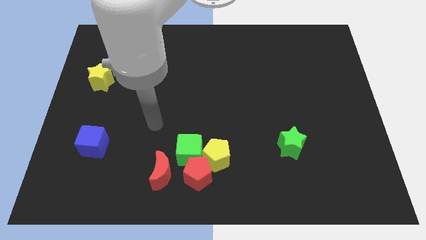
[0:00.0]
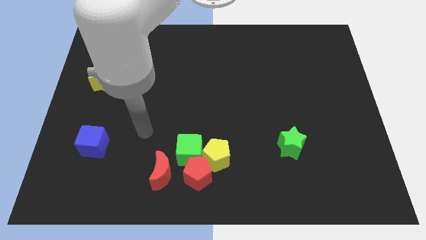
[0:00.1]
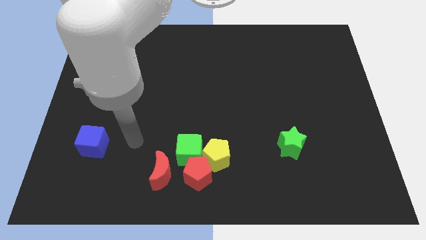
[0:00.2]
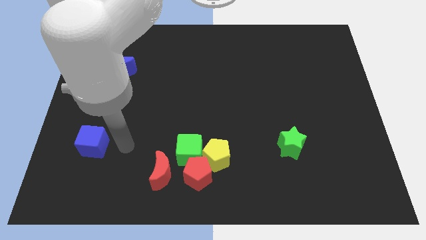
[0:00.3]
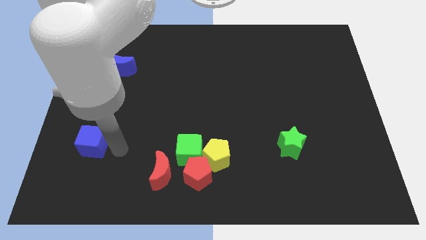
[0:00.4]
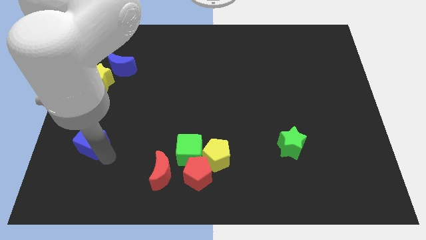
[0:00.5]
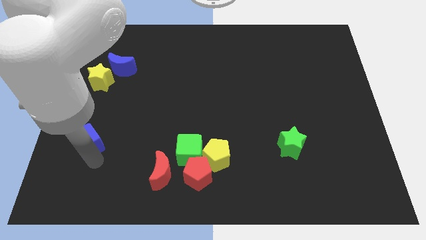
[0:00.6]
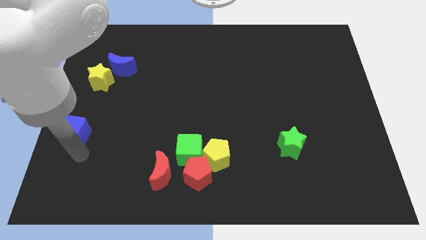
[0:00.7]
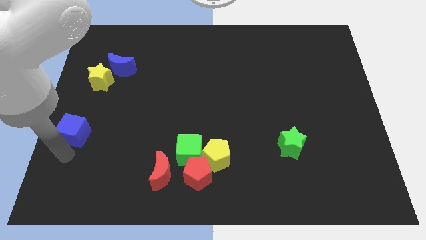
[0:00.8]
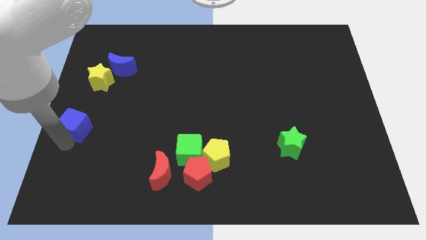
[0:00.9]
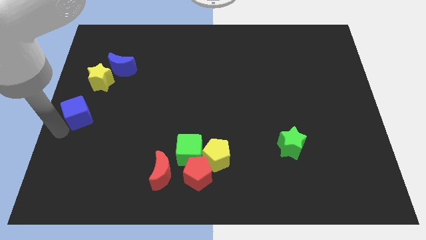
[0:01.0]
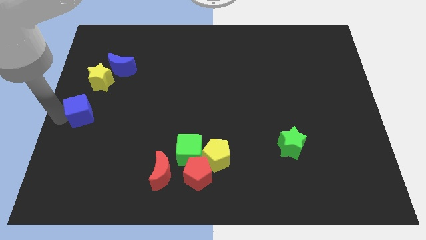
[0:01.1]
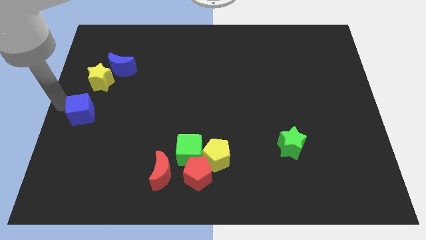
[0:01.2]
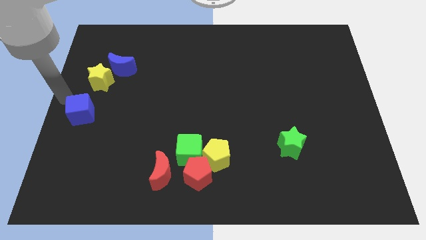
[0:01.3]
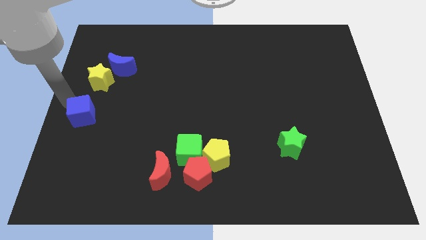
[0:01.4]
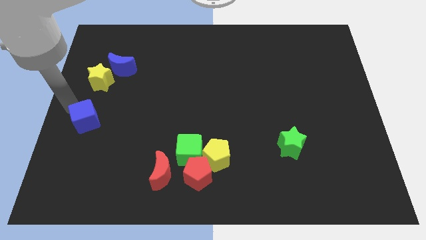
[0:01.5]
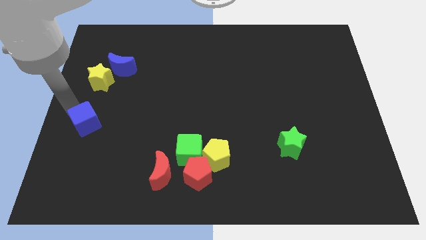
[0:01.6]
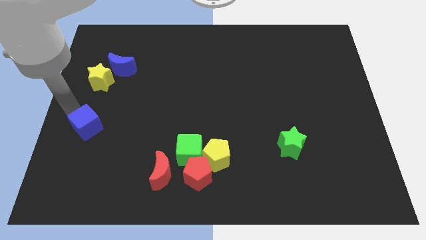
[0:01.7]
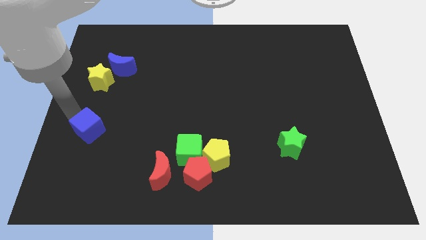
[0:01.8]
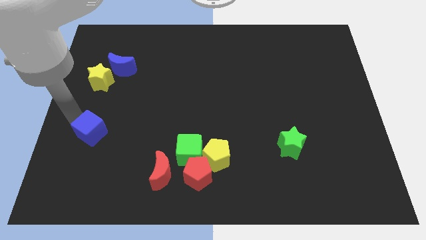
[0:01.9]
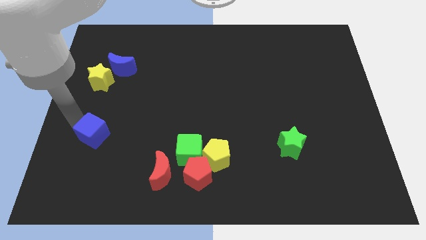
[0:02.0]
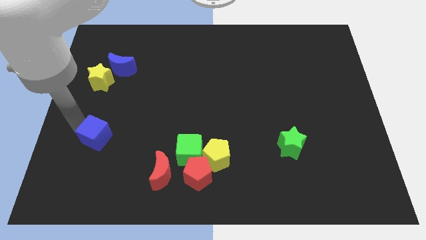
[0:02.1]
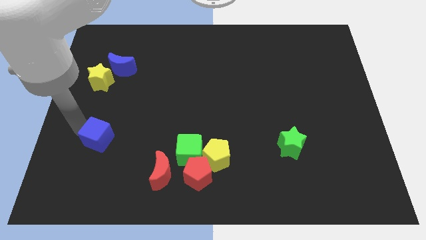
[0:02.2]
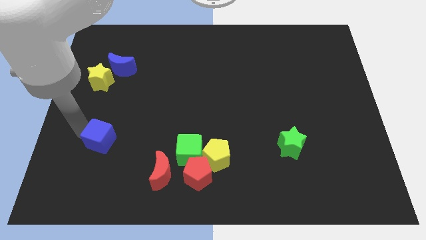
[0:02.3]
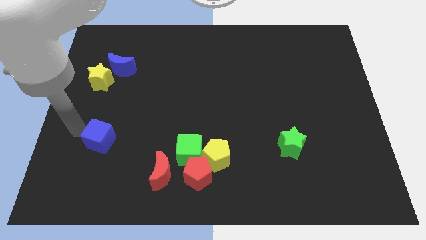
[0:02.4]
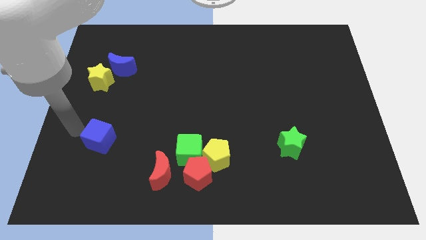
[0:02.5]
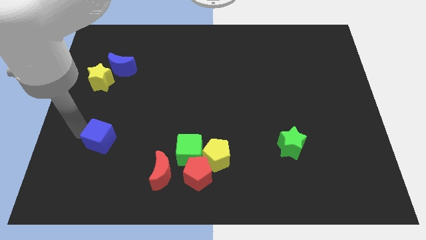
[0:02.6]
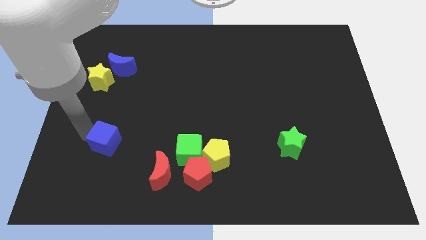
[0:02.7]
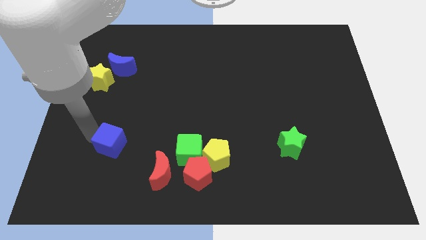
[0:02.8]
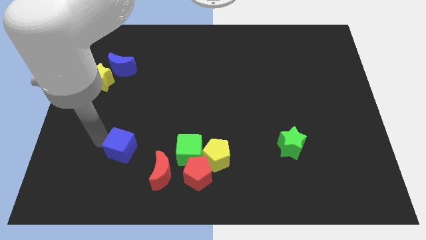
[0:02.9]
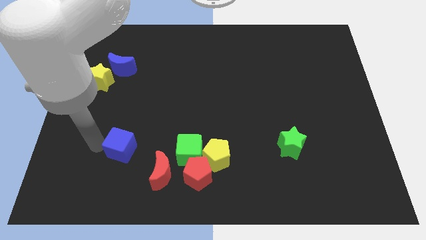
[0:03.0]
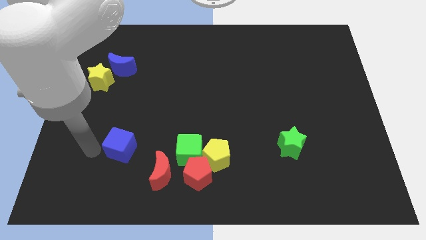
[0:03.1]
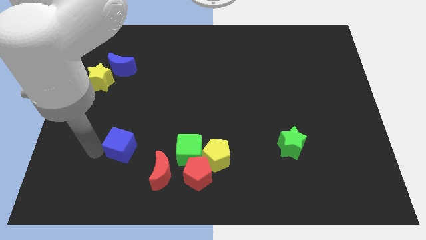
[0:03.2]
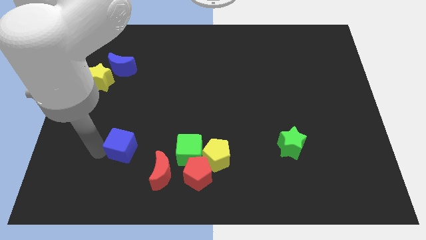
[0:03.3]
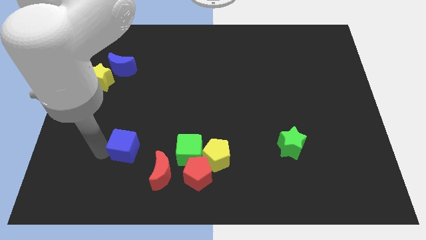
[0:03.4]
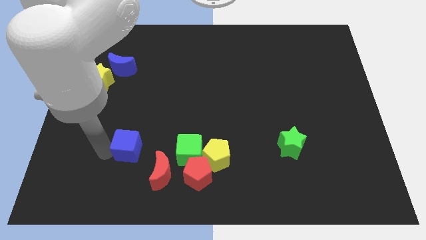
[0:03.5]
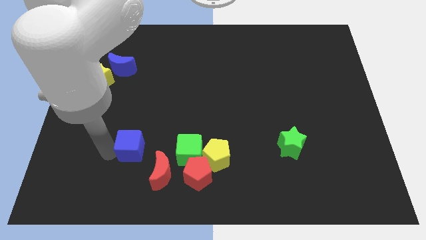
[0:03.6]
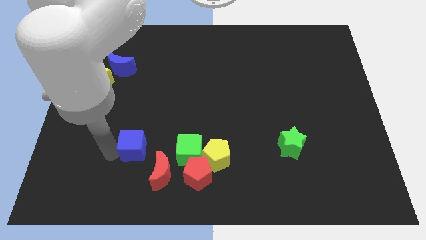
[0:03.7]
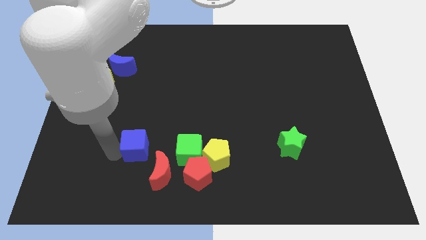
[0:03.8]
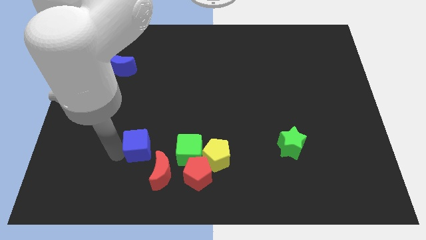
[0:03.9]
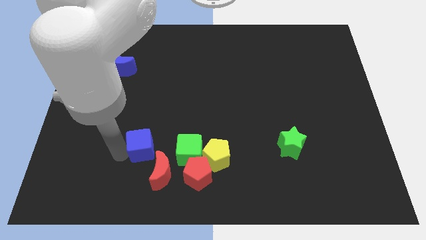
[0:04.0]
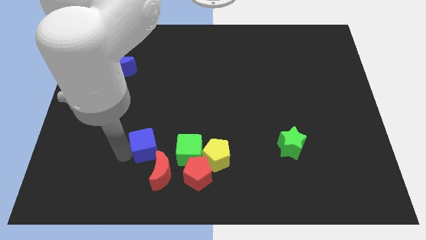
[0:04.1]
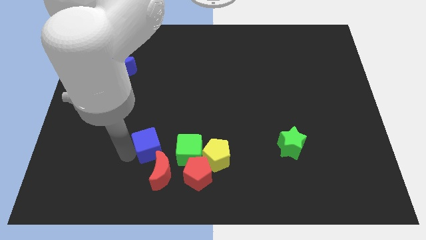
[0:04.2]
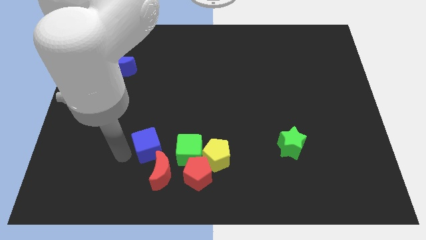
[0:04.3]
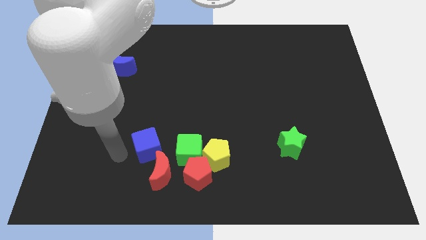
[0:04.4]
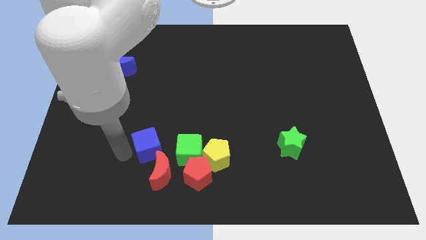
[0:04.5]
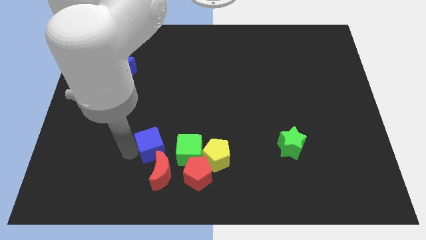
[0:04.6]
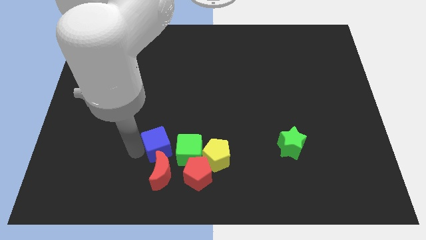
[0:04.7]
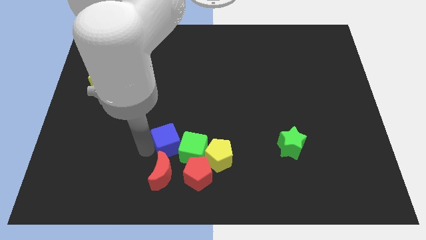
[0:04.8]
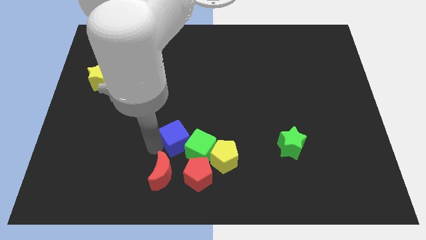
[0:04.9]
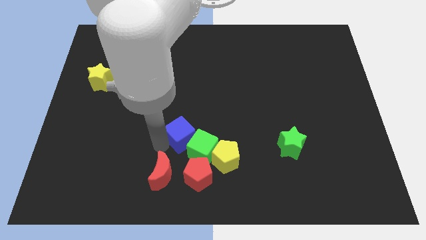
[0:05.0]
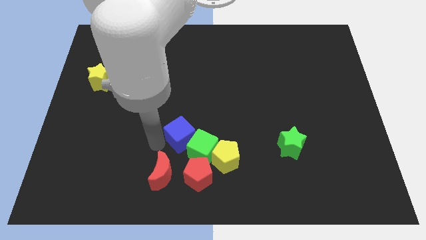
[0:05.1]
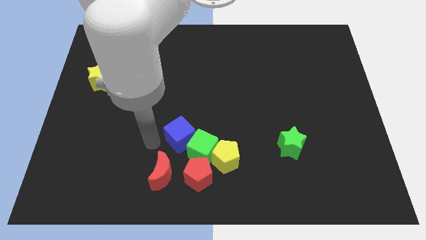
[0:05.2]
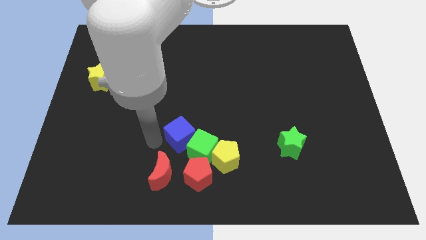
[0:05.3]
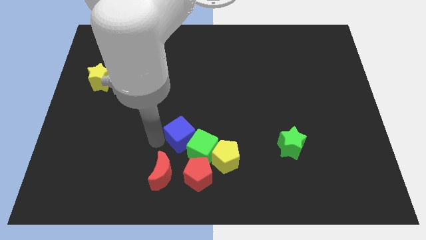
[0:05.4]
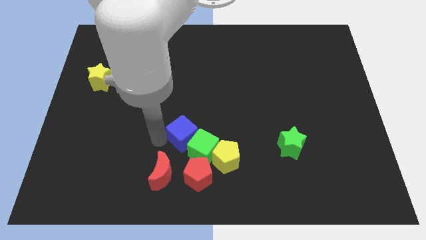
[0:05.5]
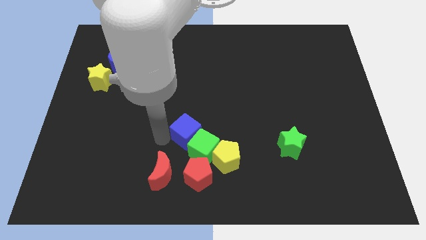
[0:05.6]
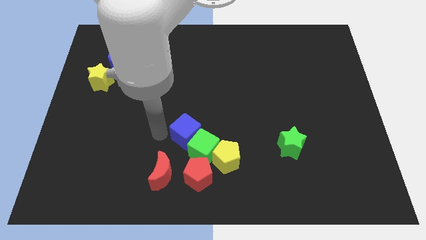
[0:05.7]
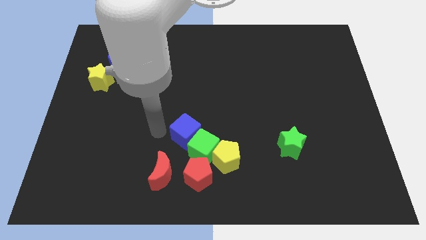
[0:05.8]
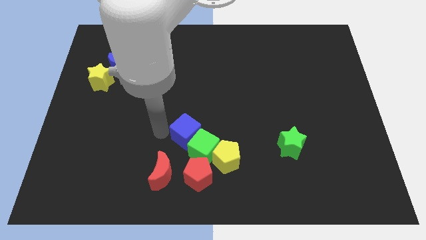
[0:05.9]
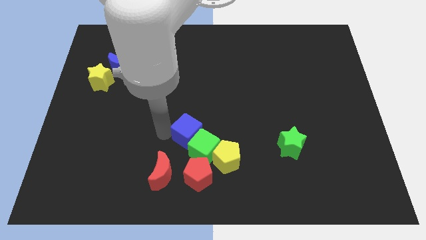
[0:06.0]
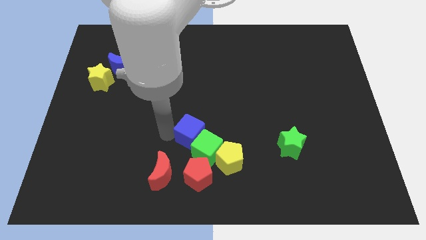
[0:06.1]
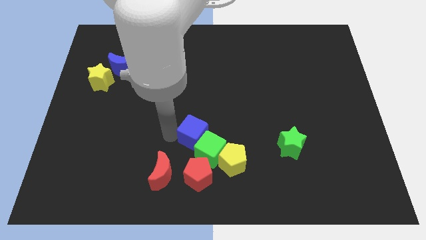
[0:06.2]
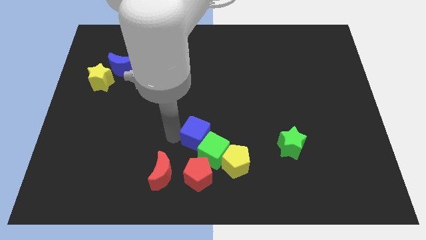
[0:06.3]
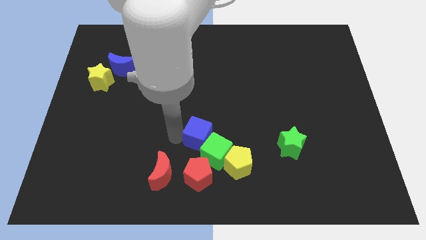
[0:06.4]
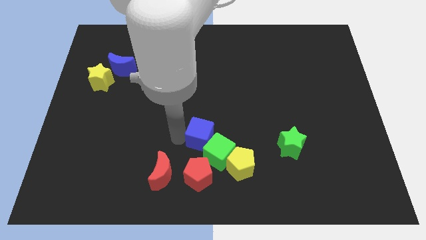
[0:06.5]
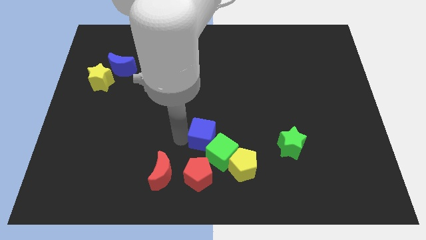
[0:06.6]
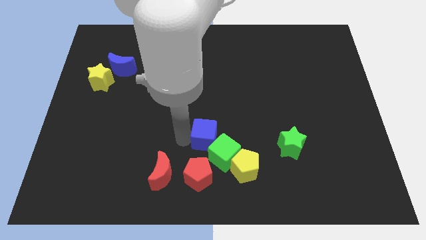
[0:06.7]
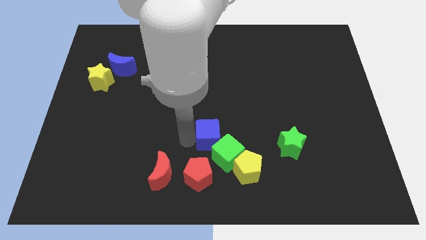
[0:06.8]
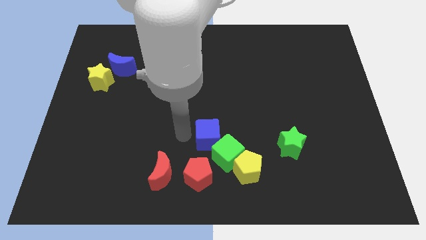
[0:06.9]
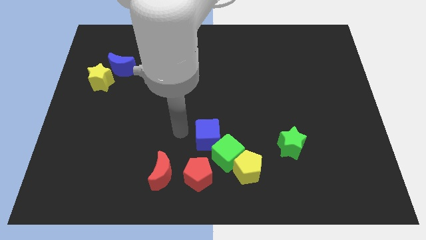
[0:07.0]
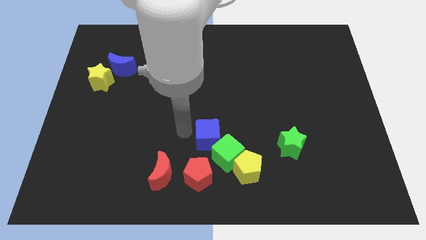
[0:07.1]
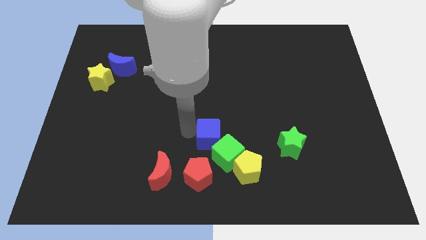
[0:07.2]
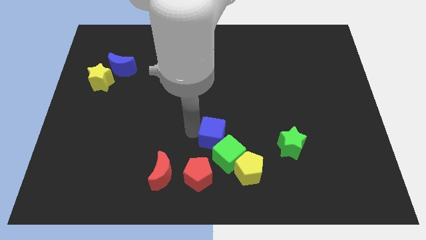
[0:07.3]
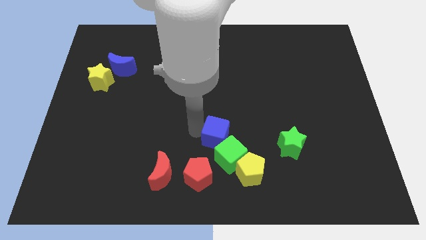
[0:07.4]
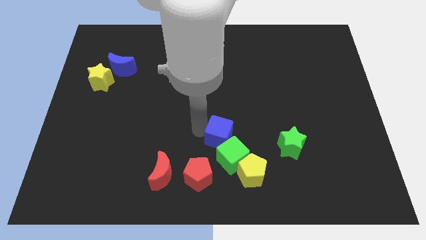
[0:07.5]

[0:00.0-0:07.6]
move the blue cube left of the green star
